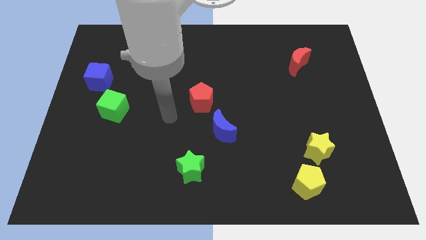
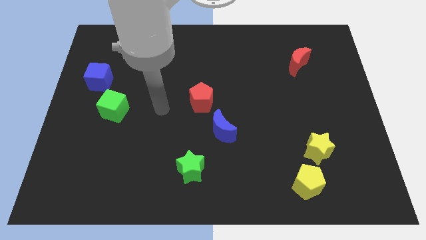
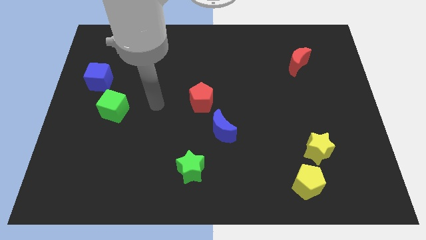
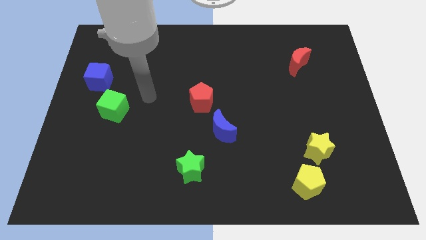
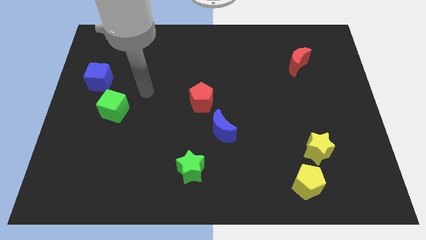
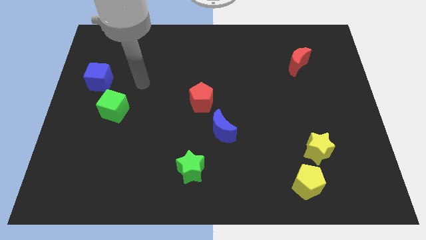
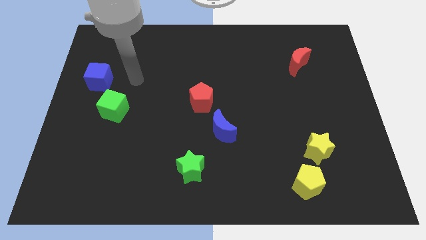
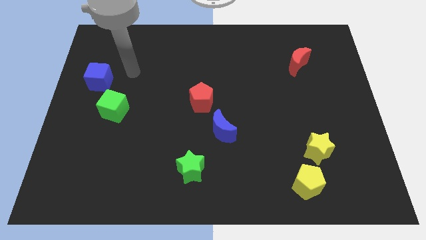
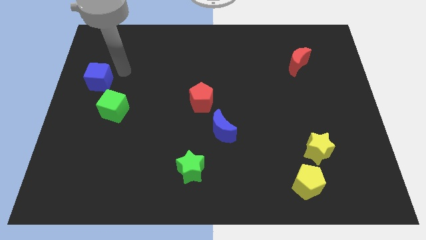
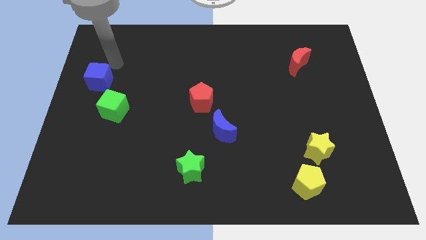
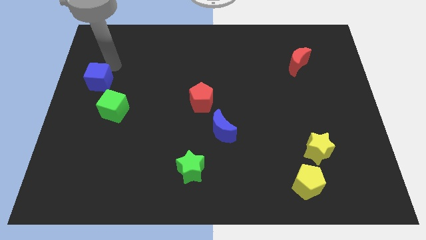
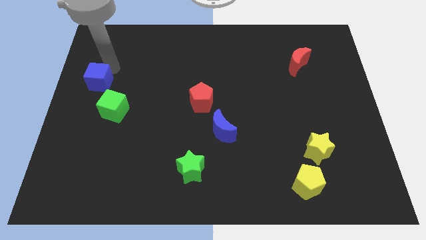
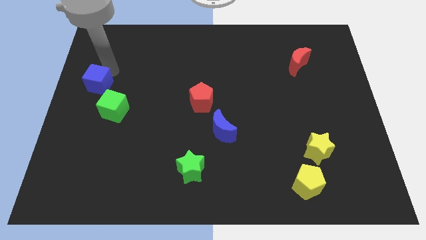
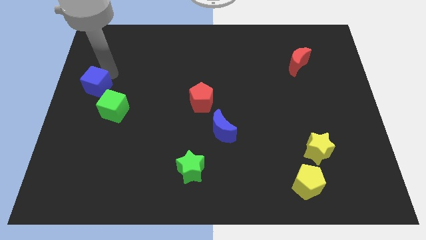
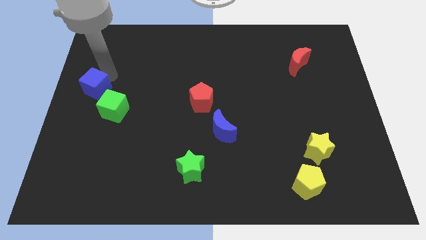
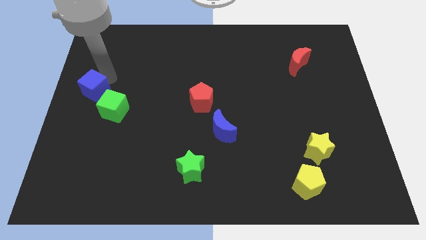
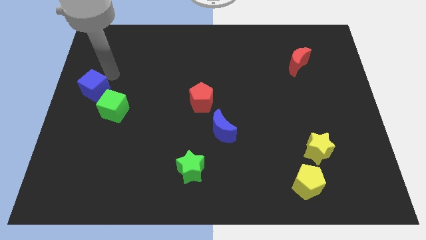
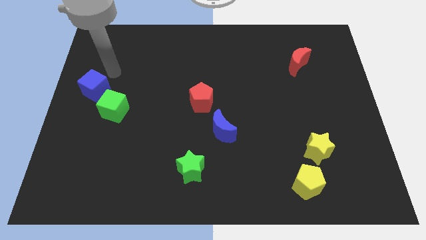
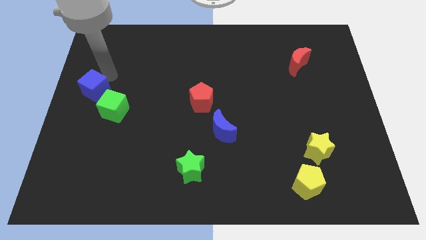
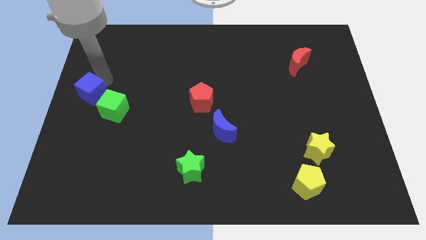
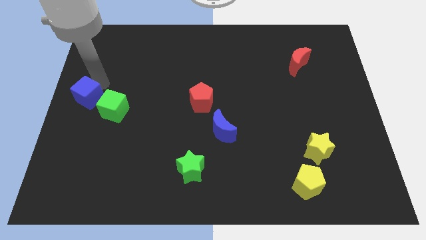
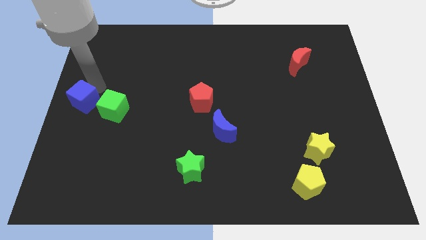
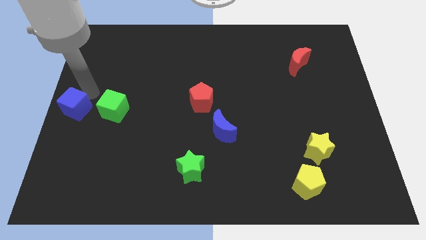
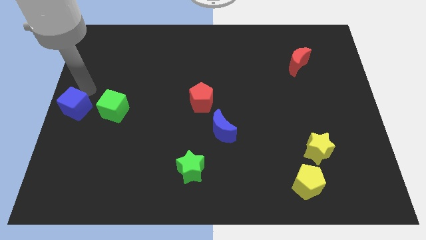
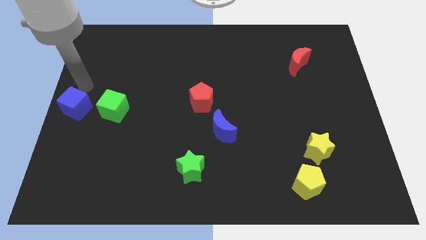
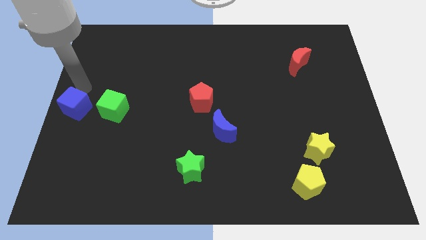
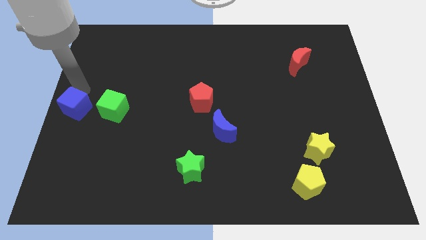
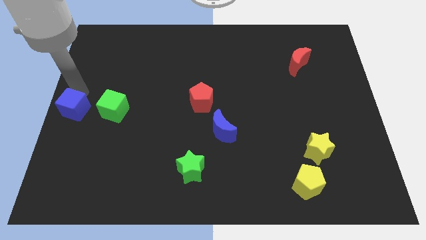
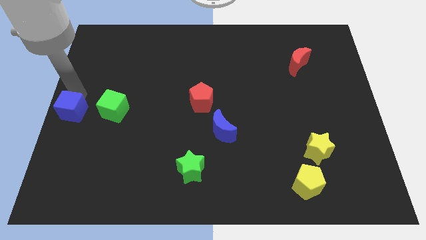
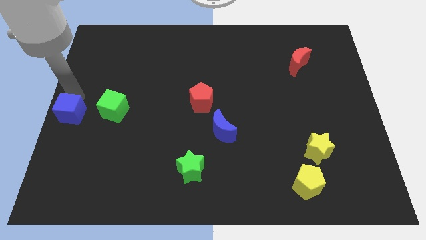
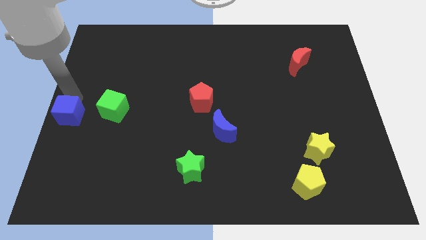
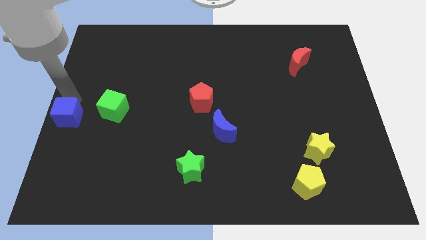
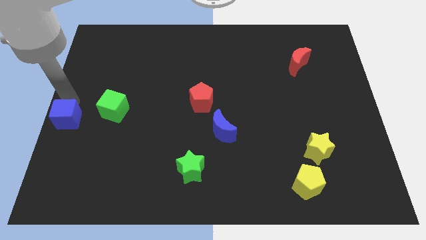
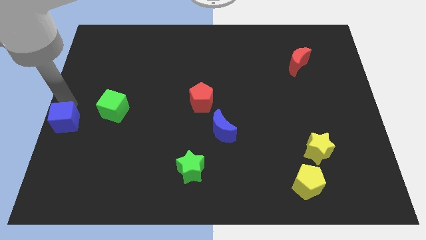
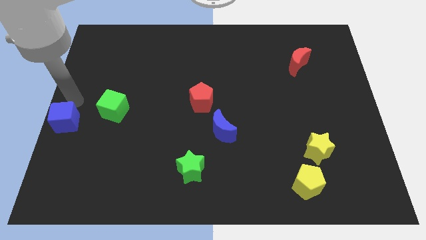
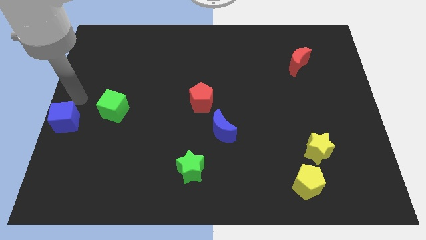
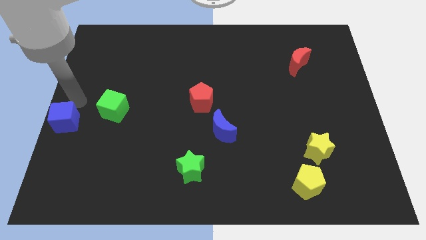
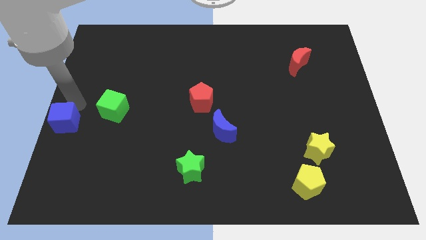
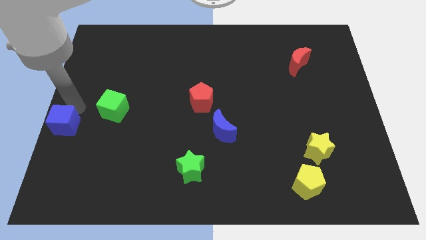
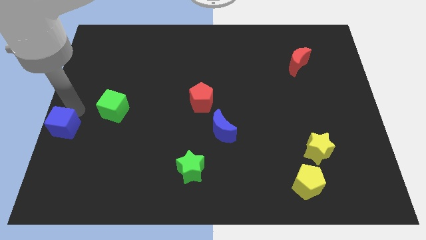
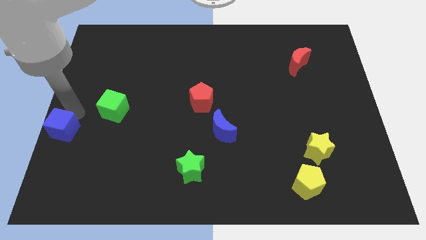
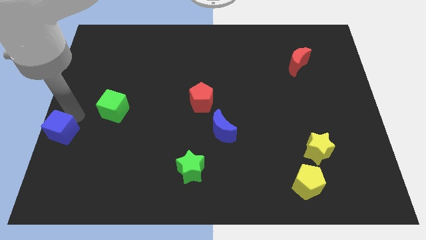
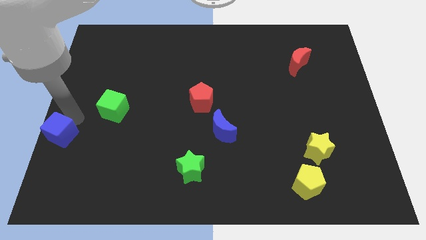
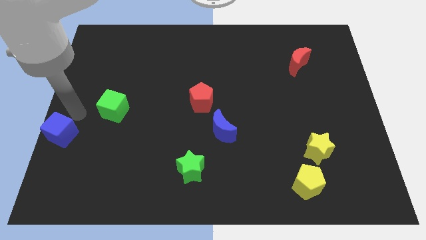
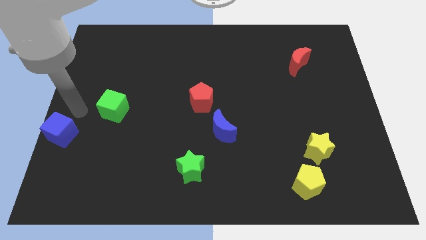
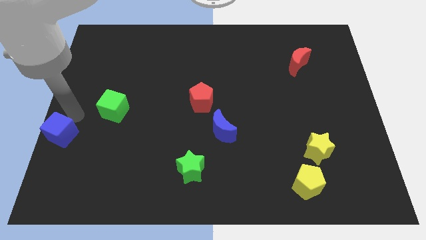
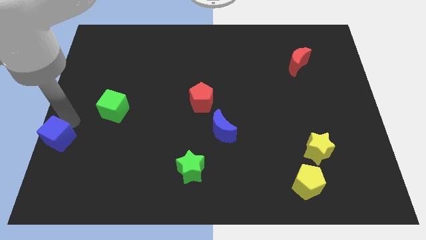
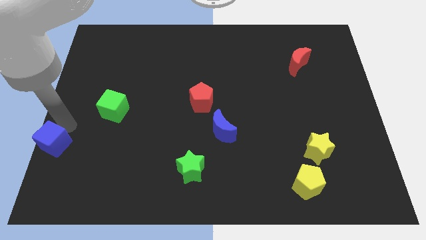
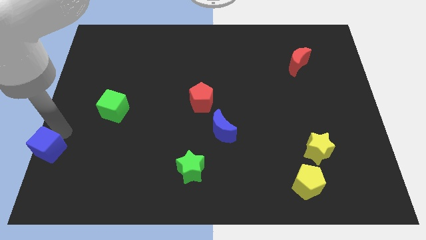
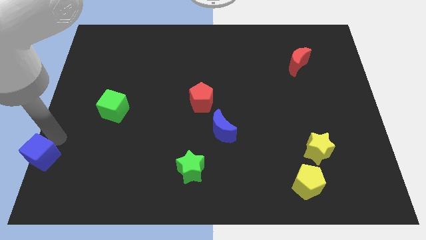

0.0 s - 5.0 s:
put the blue cube to the bottom left

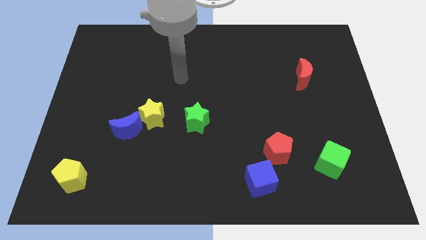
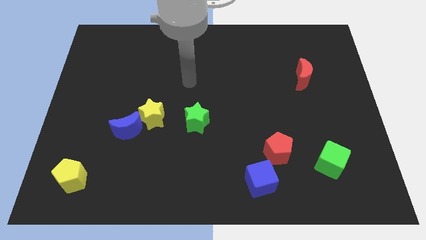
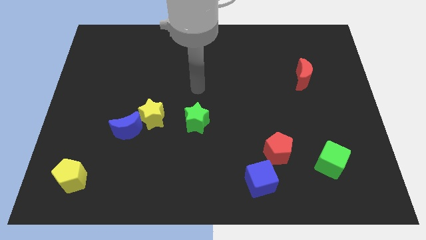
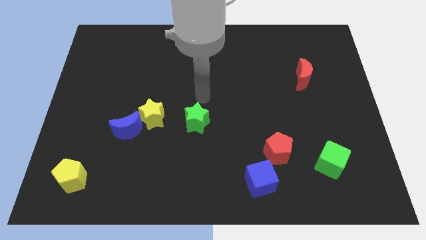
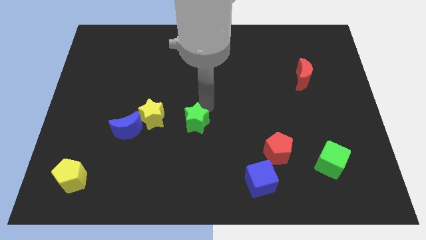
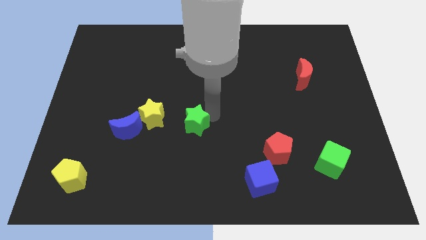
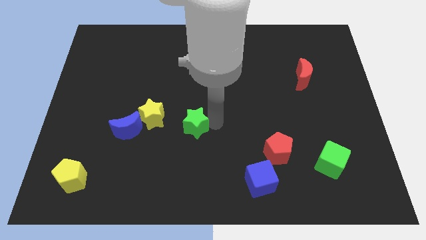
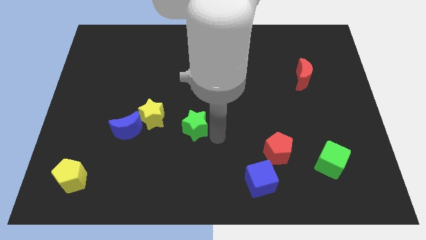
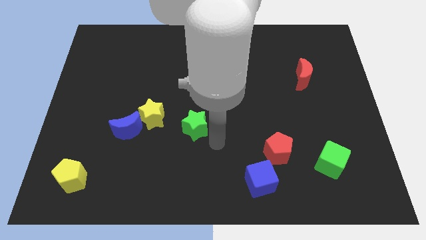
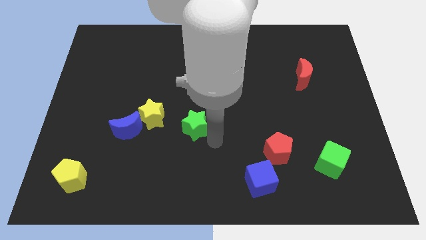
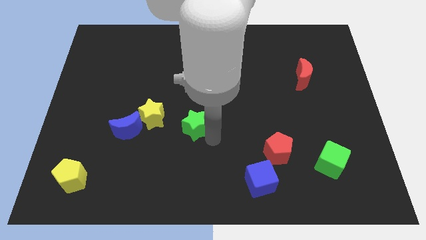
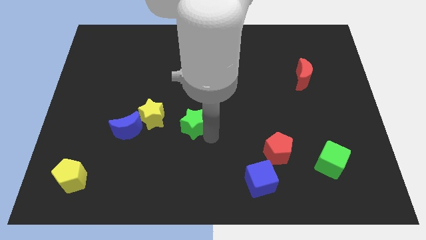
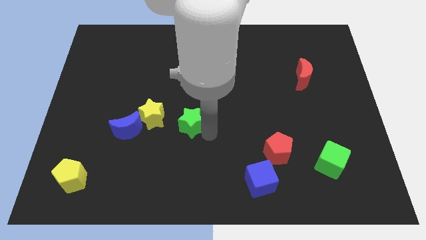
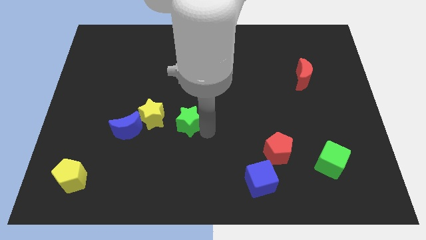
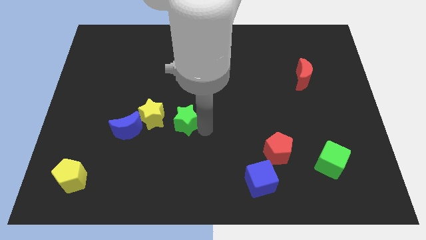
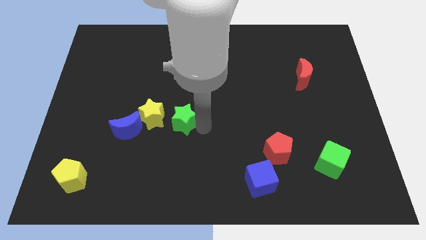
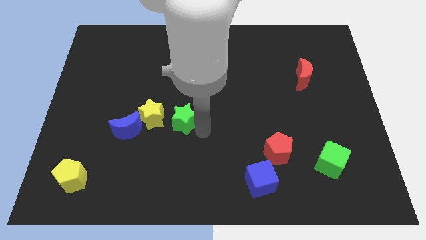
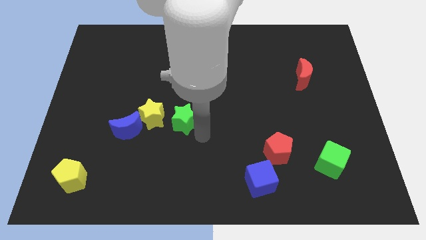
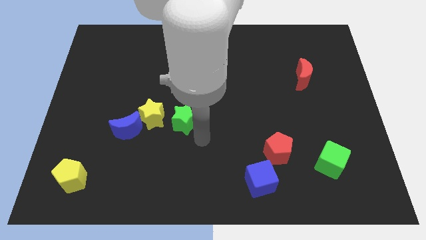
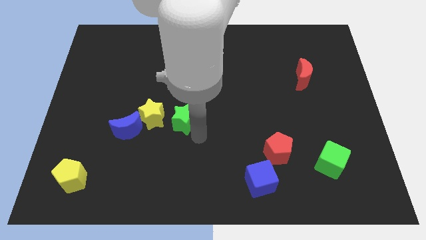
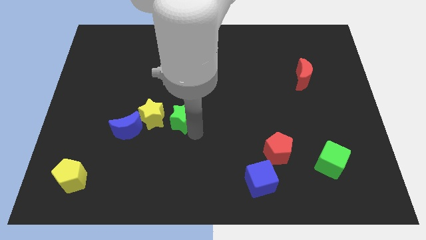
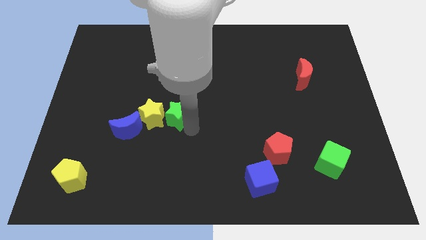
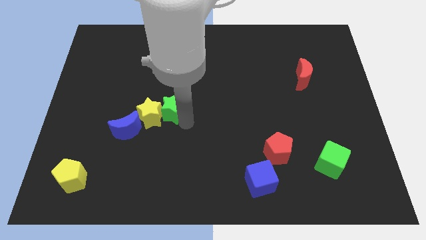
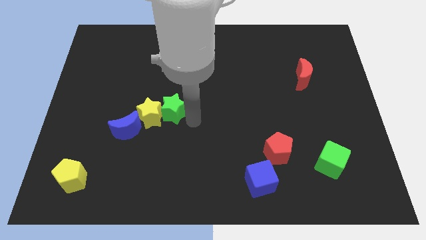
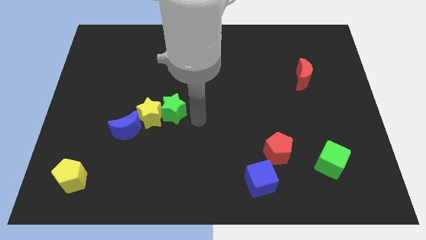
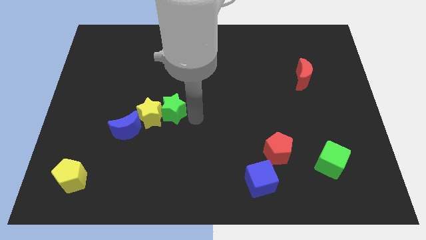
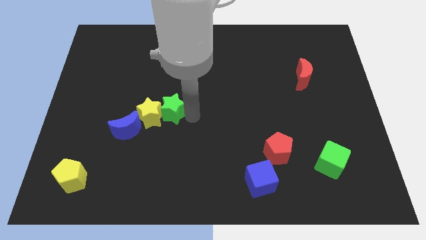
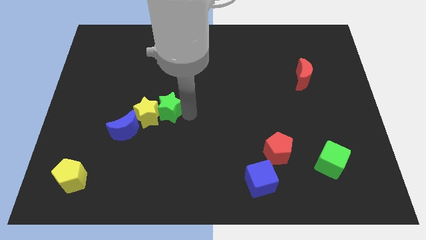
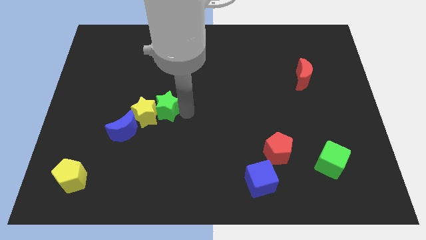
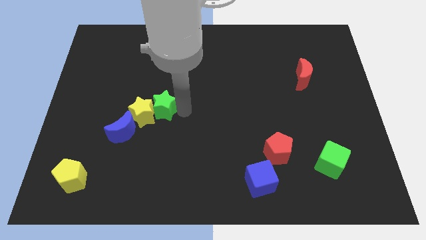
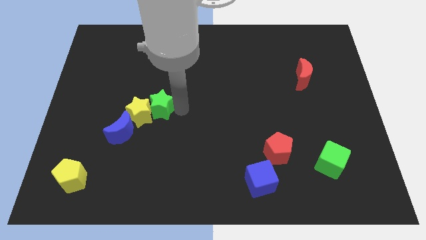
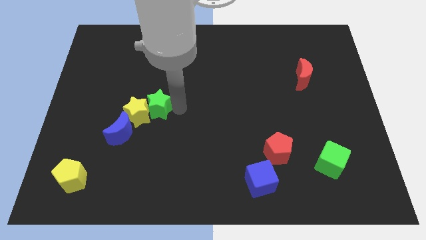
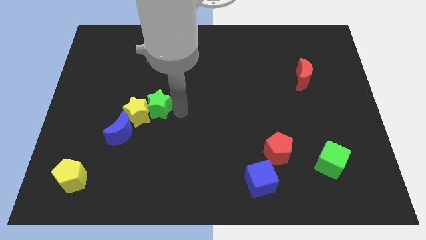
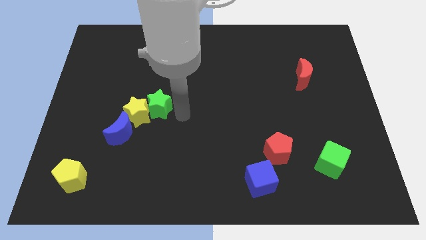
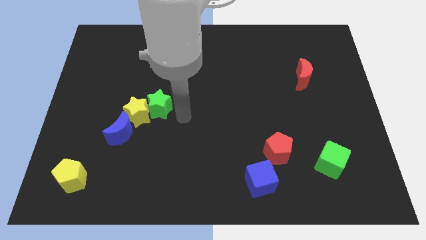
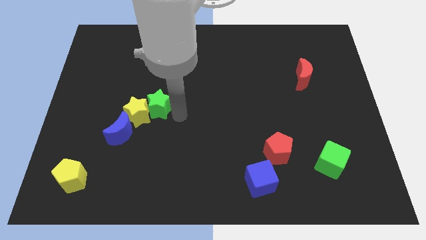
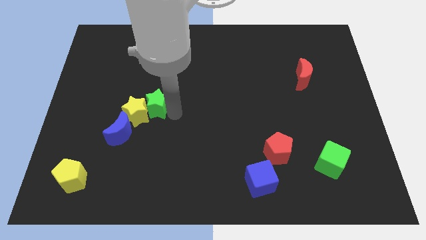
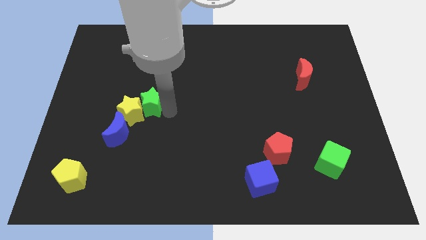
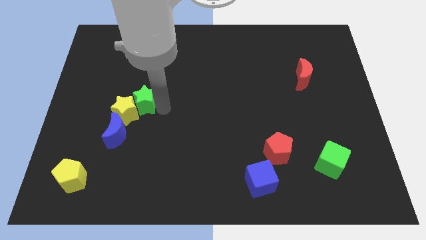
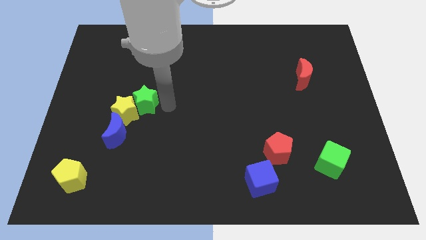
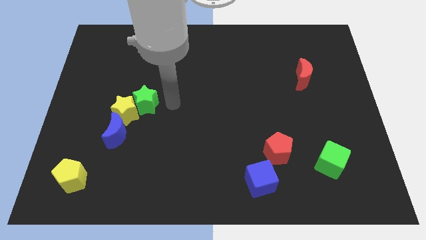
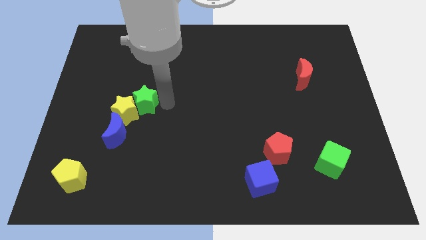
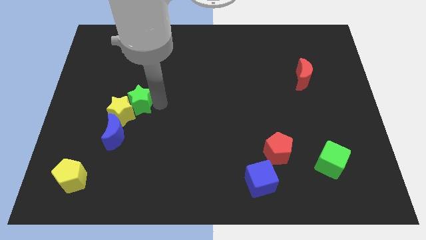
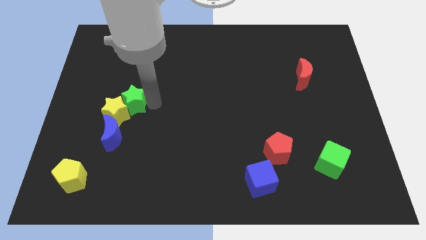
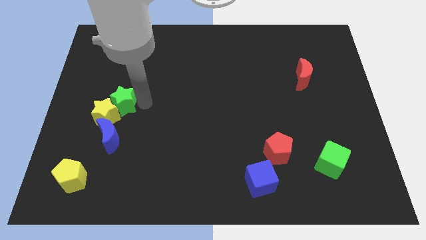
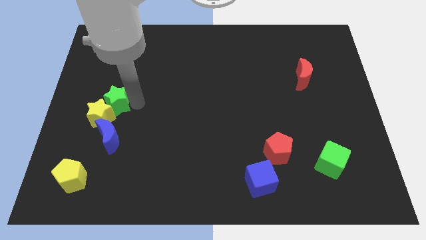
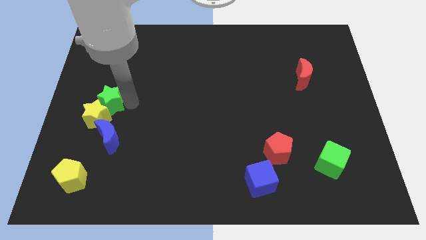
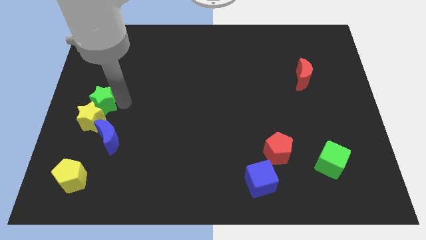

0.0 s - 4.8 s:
put the green star to the left side
